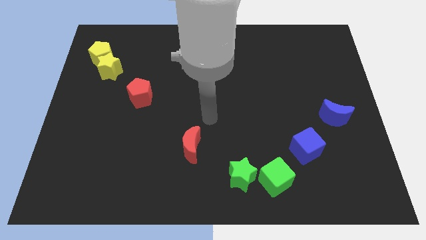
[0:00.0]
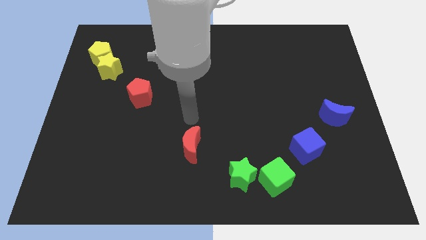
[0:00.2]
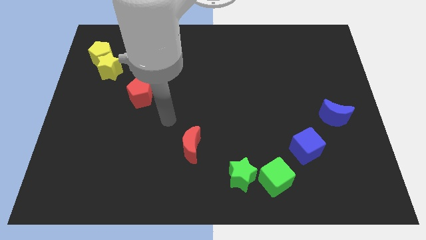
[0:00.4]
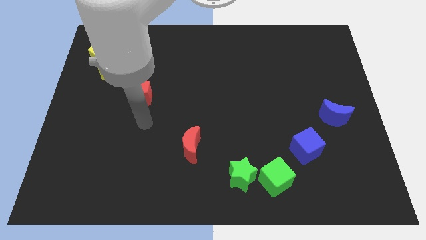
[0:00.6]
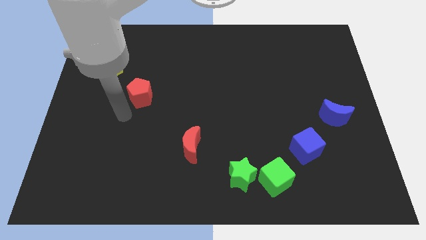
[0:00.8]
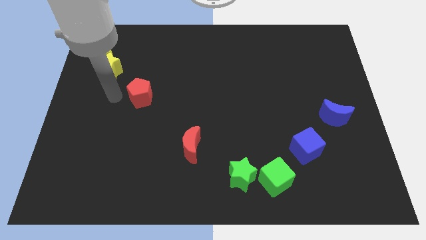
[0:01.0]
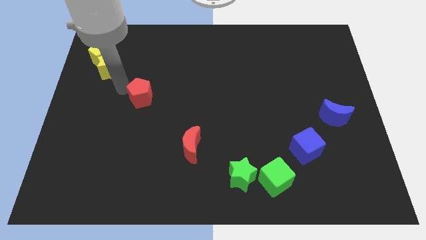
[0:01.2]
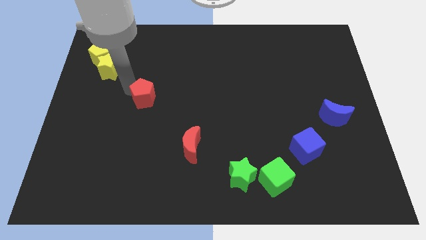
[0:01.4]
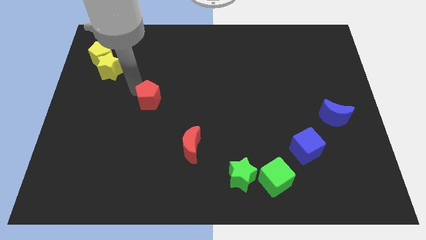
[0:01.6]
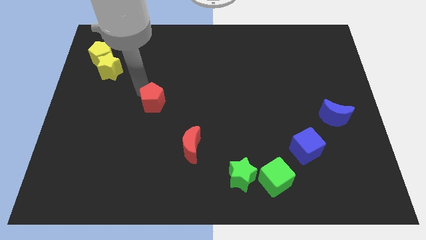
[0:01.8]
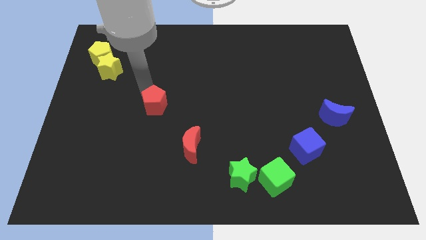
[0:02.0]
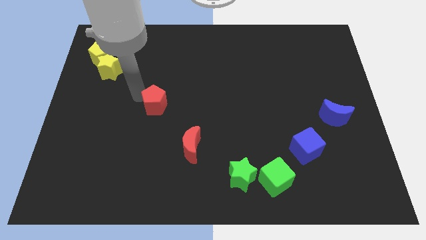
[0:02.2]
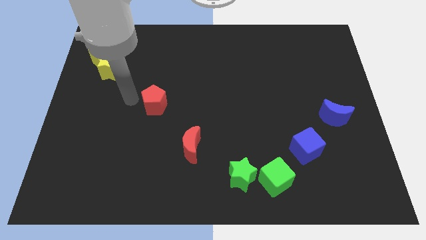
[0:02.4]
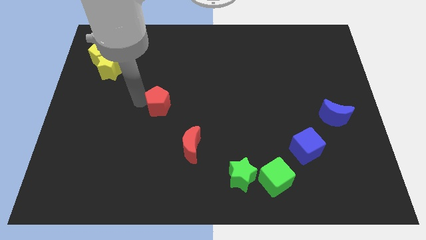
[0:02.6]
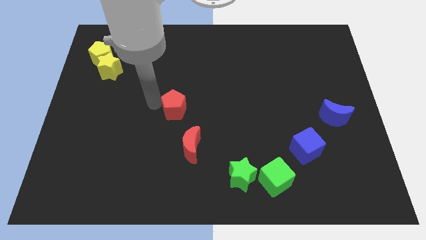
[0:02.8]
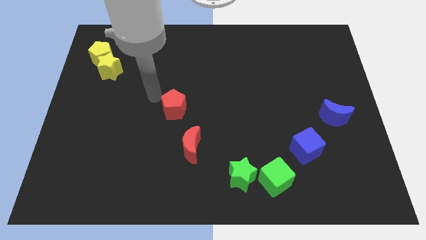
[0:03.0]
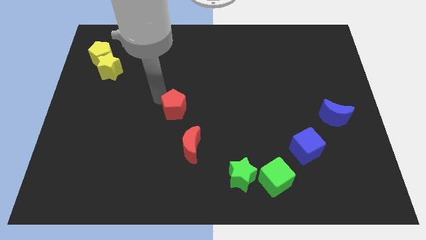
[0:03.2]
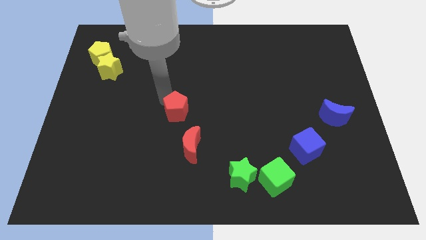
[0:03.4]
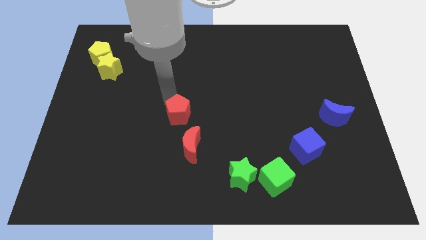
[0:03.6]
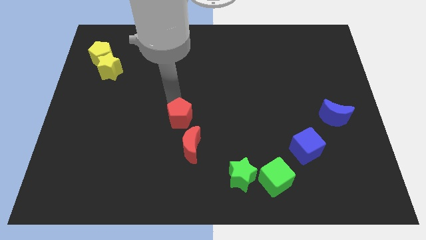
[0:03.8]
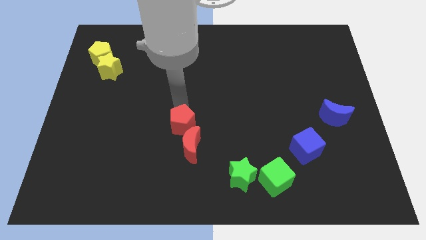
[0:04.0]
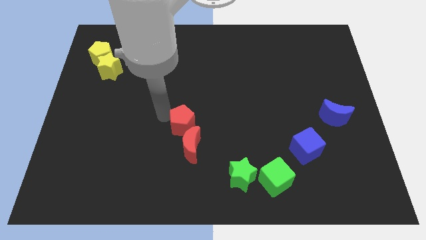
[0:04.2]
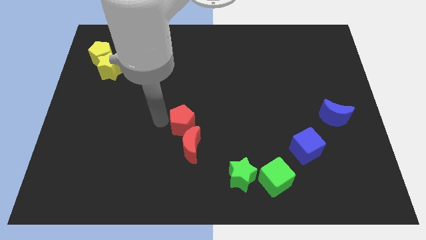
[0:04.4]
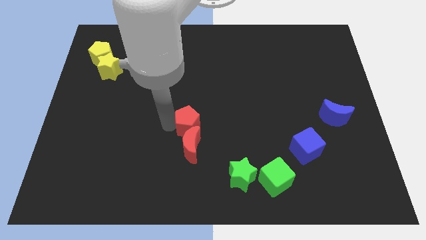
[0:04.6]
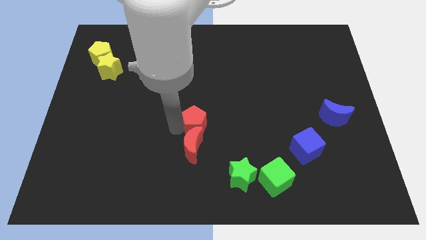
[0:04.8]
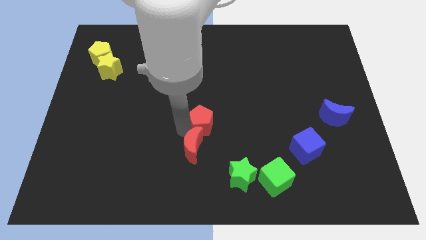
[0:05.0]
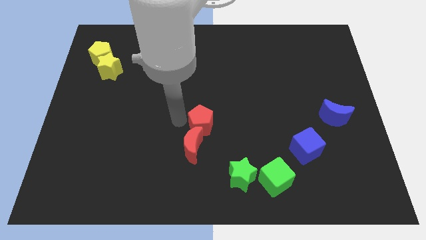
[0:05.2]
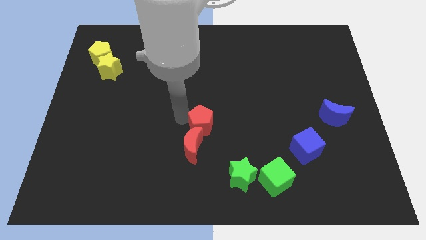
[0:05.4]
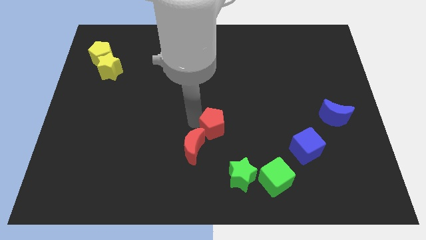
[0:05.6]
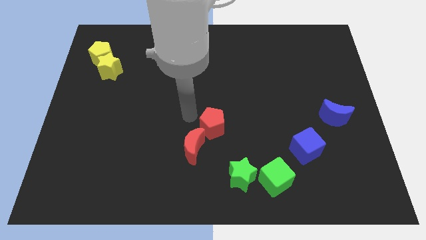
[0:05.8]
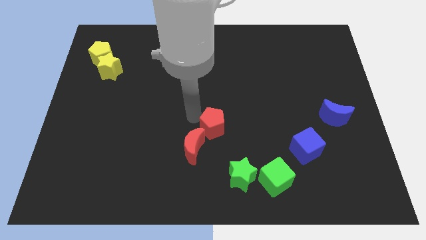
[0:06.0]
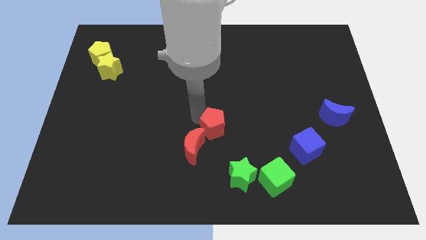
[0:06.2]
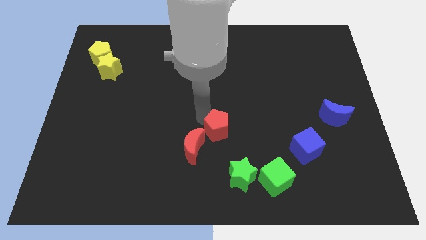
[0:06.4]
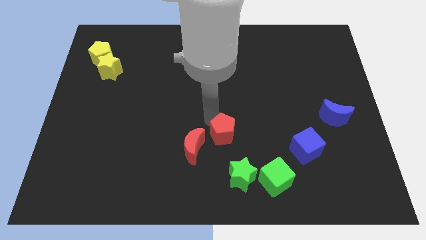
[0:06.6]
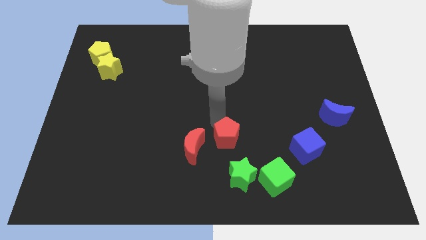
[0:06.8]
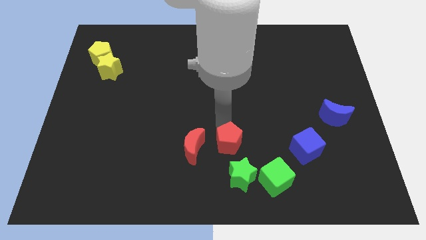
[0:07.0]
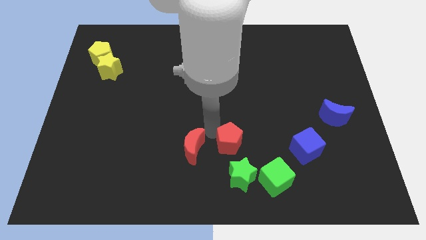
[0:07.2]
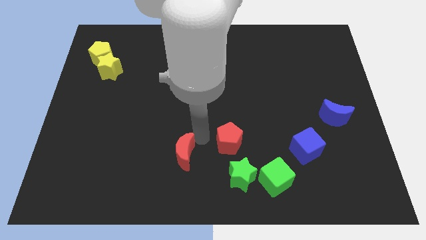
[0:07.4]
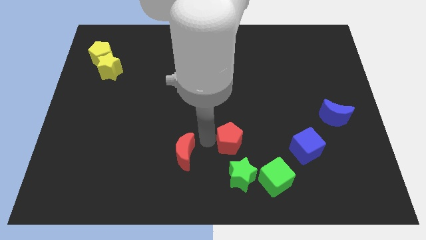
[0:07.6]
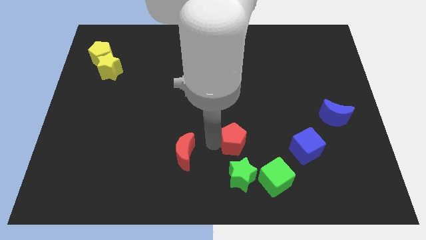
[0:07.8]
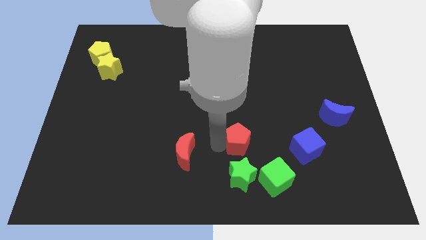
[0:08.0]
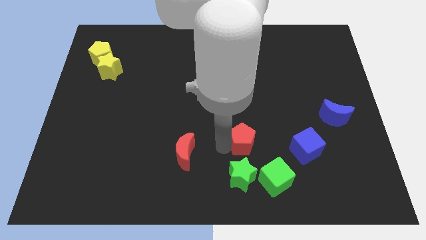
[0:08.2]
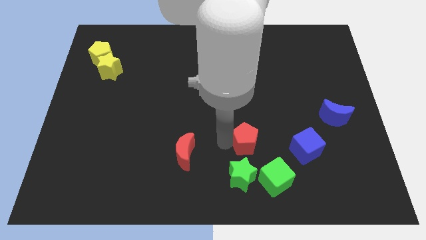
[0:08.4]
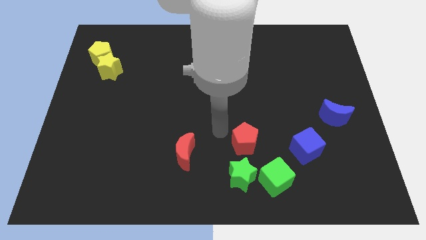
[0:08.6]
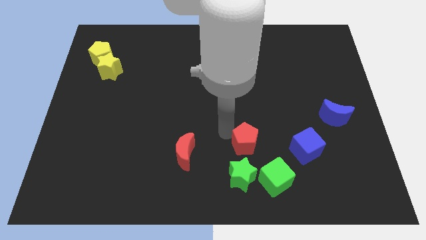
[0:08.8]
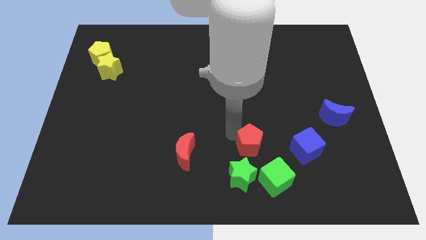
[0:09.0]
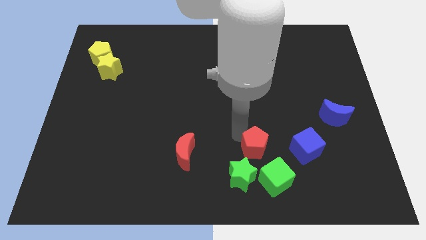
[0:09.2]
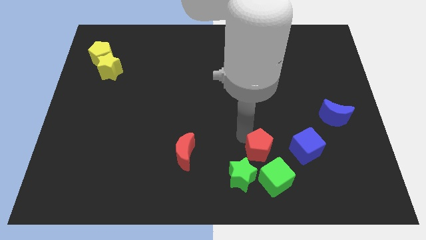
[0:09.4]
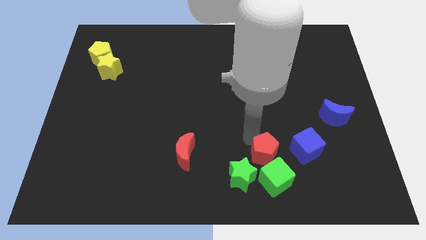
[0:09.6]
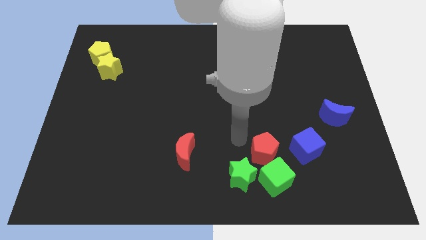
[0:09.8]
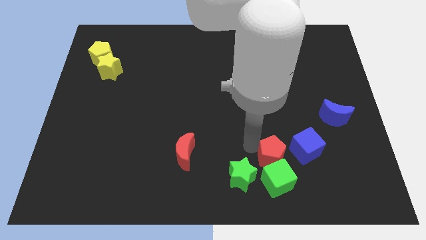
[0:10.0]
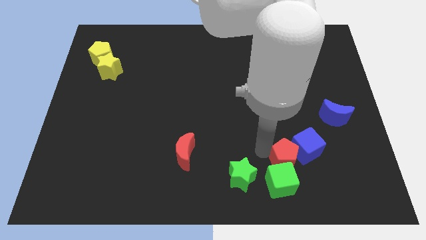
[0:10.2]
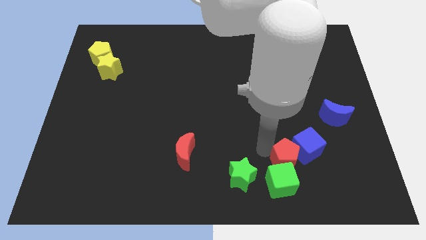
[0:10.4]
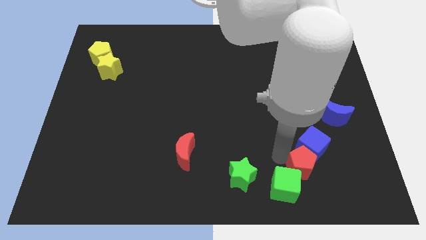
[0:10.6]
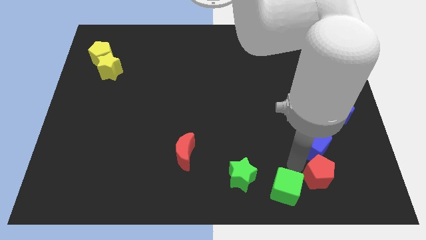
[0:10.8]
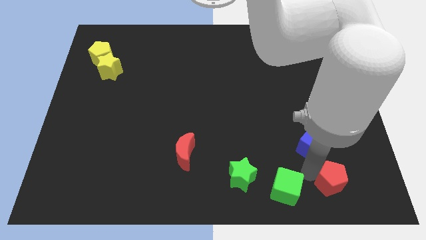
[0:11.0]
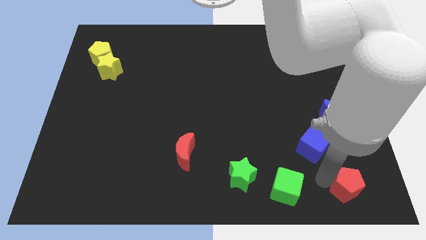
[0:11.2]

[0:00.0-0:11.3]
move the red pentagon to the lower right corner

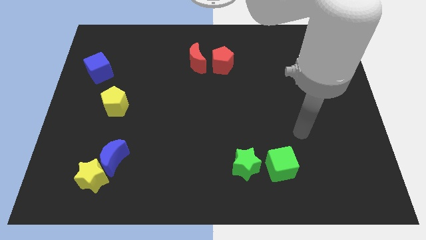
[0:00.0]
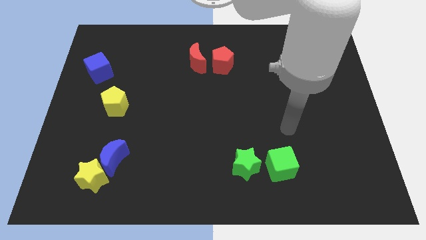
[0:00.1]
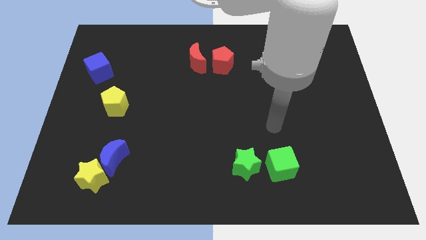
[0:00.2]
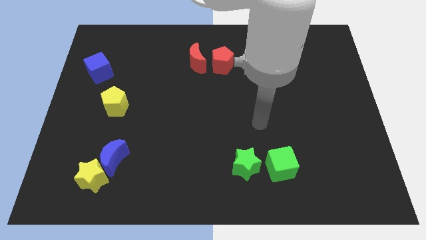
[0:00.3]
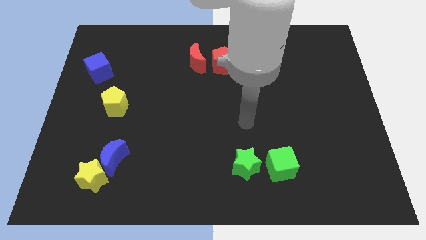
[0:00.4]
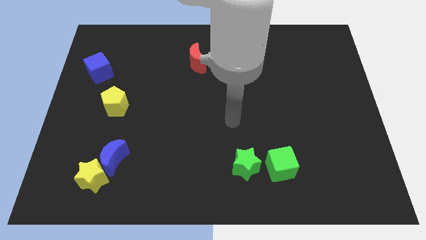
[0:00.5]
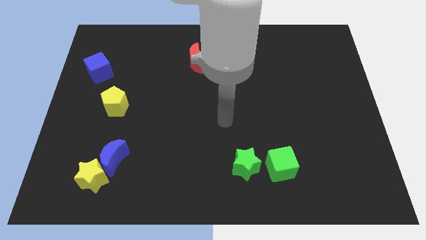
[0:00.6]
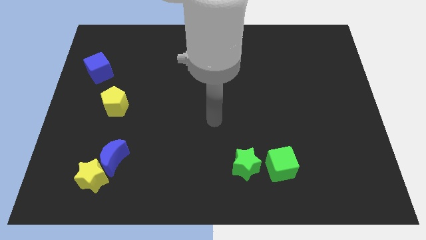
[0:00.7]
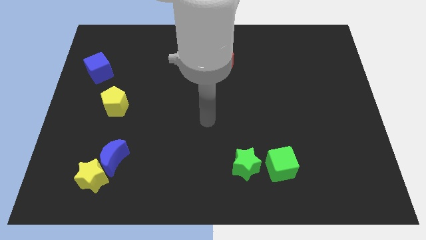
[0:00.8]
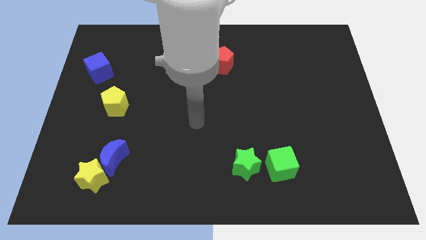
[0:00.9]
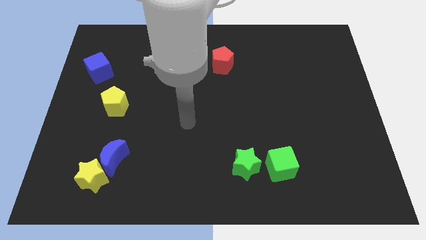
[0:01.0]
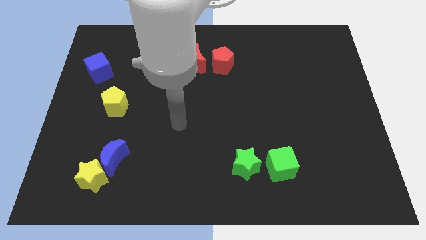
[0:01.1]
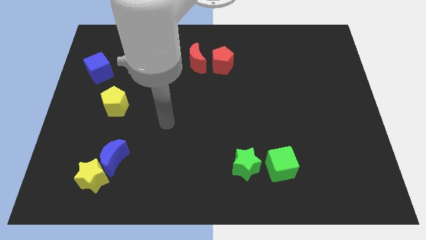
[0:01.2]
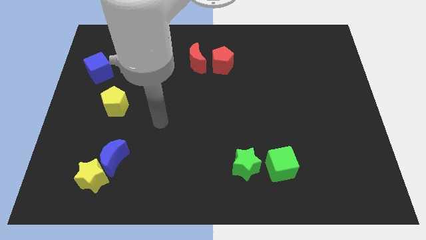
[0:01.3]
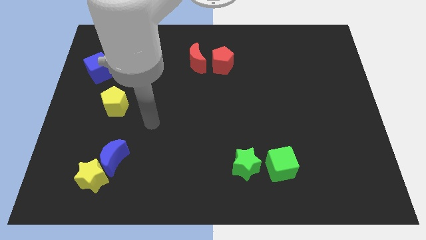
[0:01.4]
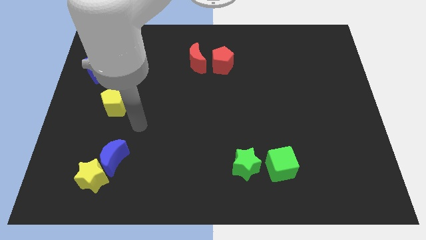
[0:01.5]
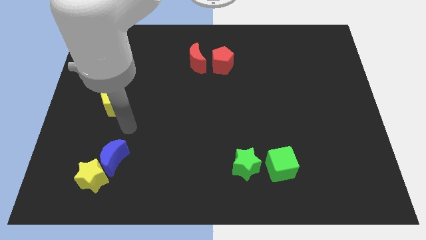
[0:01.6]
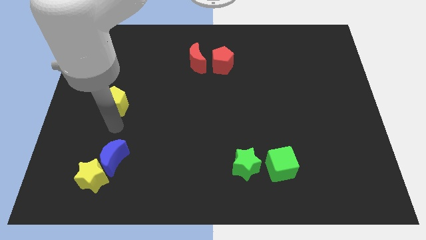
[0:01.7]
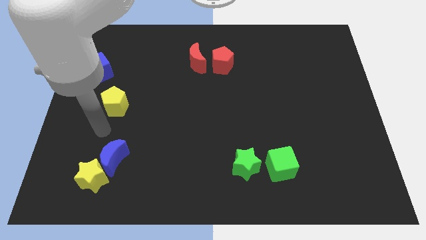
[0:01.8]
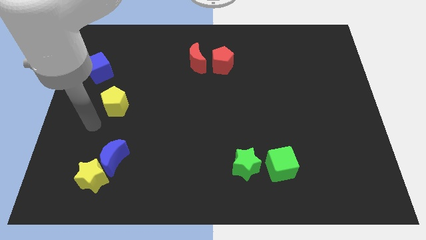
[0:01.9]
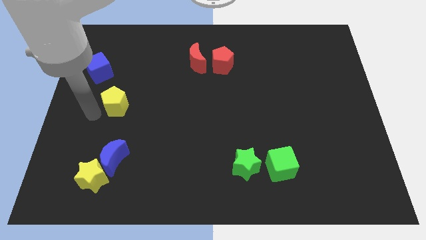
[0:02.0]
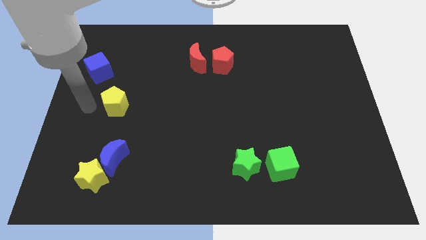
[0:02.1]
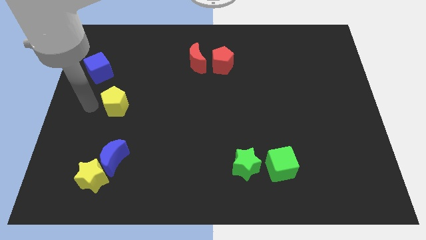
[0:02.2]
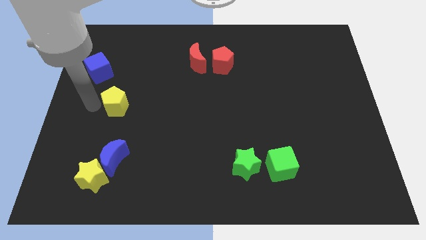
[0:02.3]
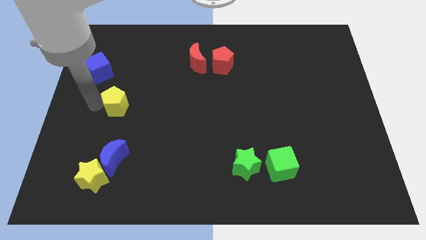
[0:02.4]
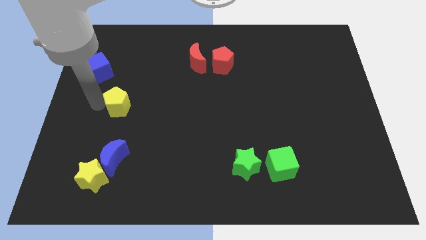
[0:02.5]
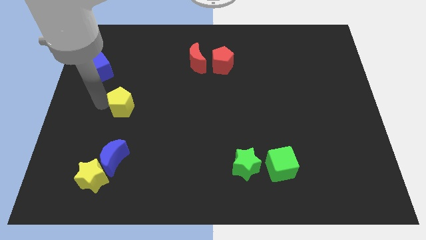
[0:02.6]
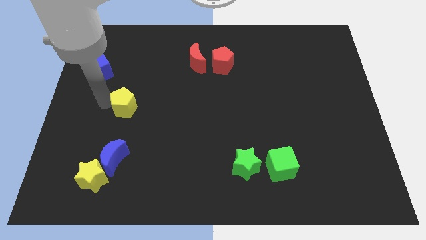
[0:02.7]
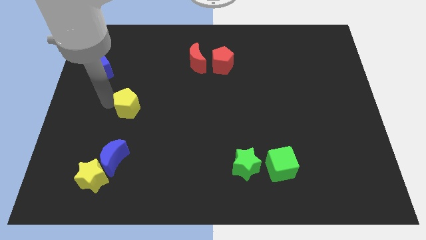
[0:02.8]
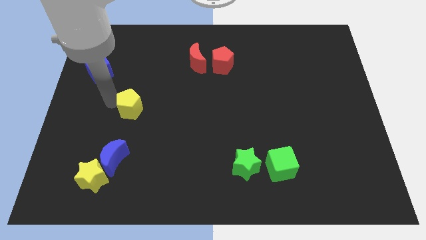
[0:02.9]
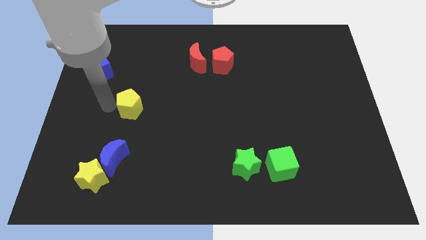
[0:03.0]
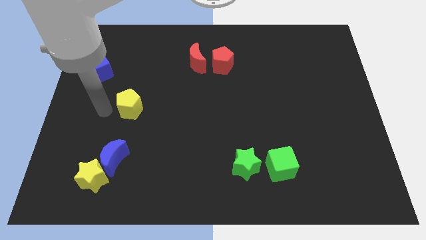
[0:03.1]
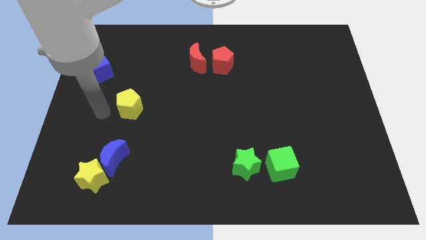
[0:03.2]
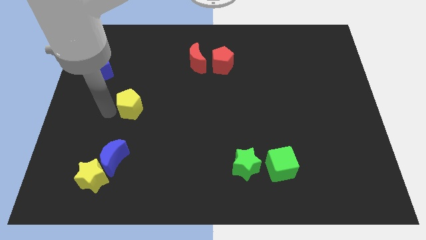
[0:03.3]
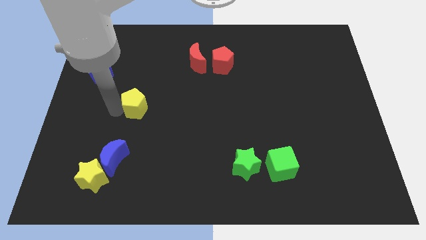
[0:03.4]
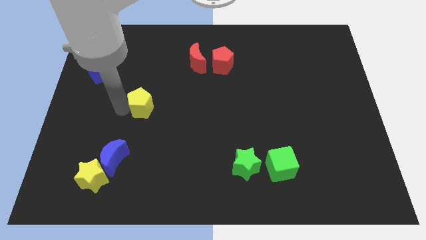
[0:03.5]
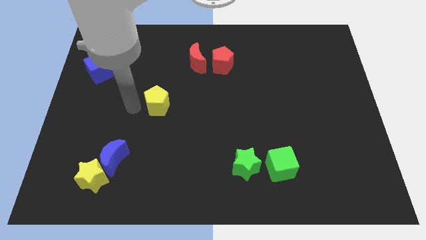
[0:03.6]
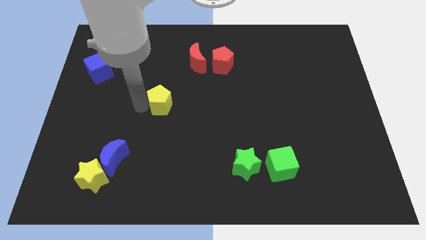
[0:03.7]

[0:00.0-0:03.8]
slide the yellow pentagon to the center of the board
